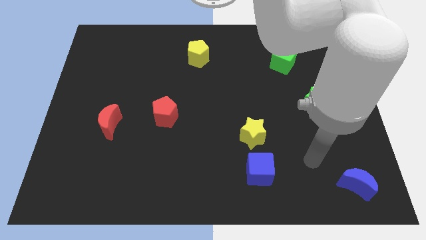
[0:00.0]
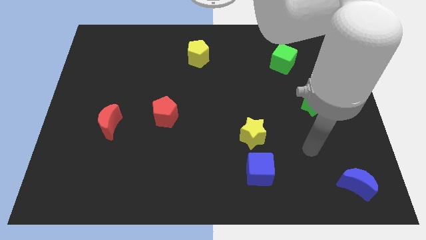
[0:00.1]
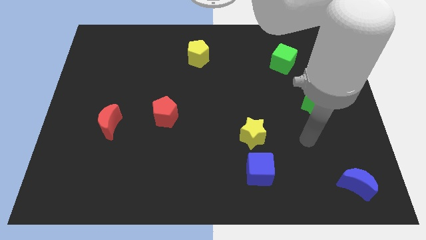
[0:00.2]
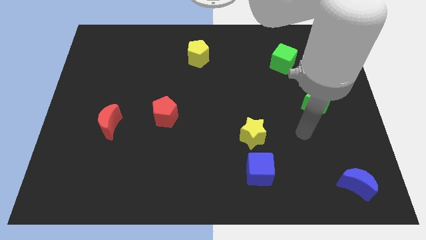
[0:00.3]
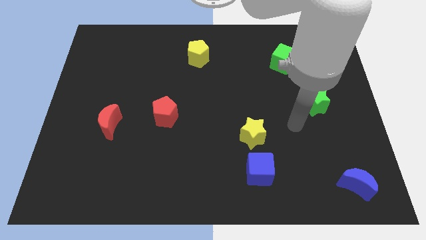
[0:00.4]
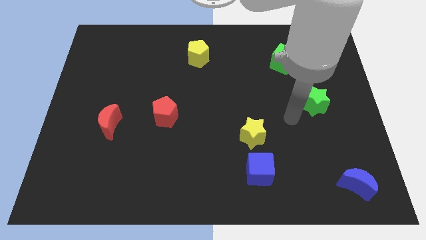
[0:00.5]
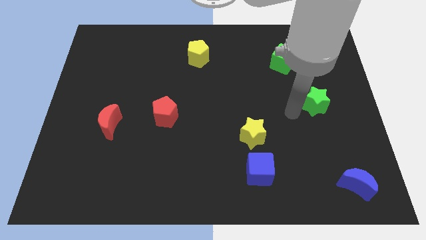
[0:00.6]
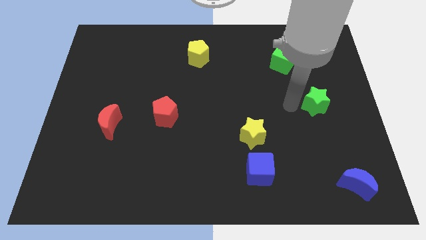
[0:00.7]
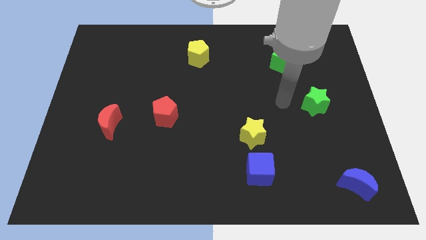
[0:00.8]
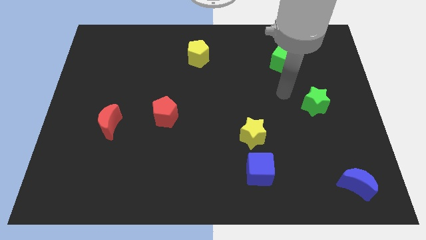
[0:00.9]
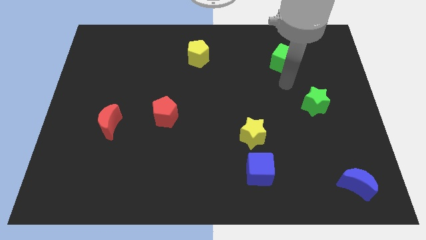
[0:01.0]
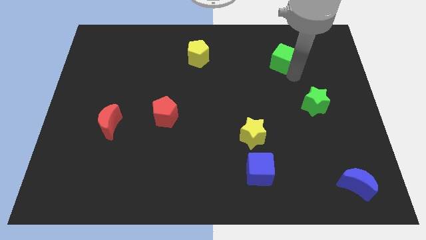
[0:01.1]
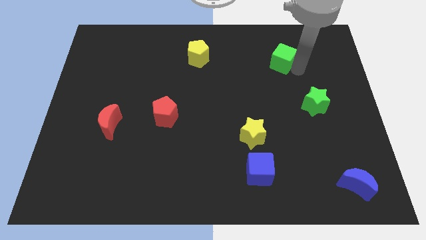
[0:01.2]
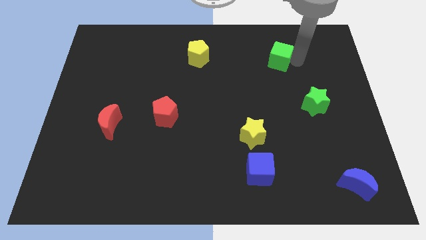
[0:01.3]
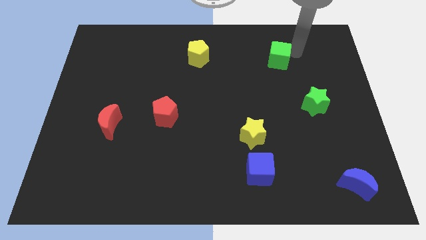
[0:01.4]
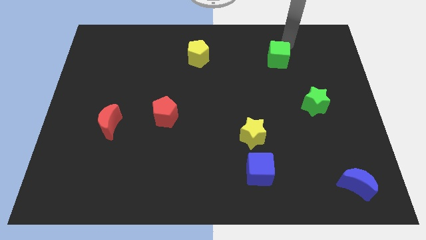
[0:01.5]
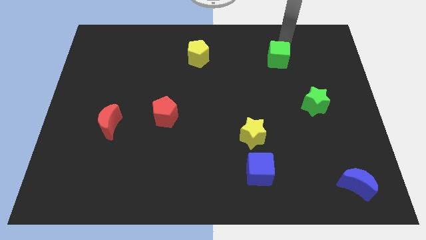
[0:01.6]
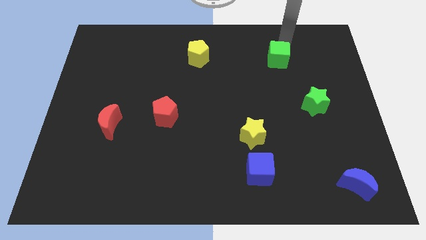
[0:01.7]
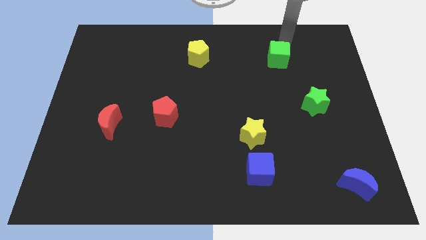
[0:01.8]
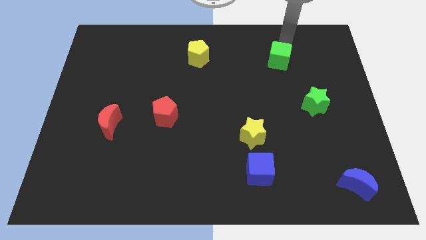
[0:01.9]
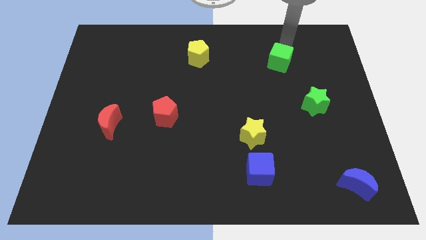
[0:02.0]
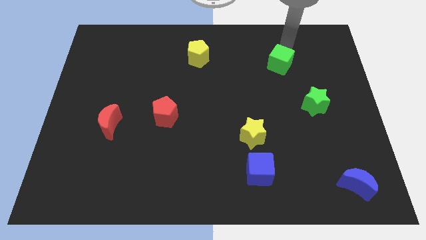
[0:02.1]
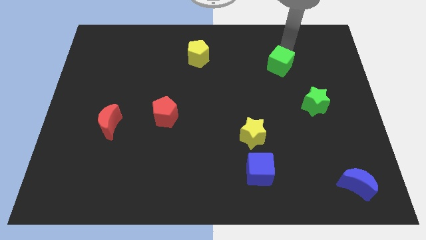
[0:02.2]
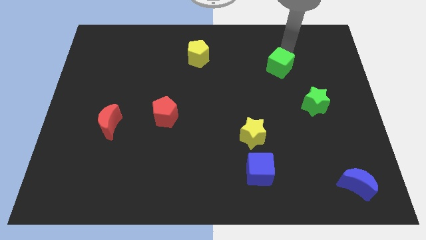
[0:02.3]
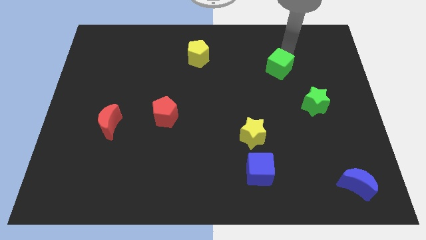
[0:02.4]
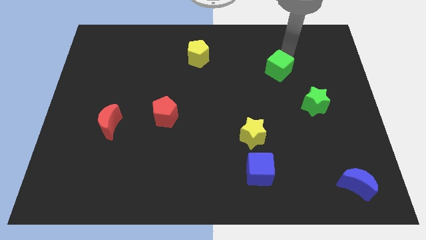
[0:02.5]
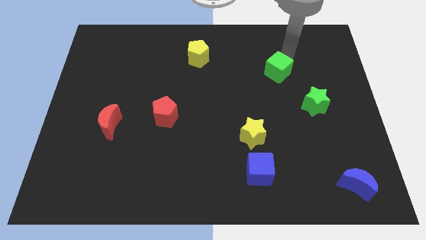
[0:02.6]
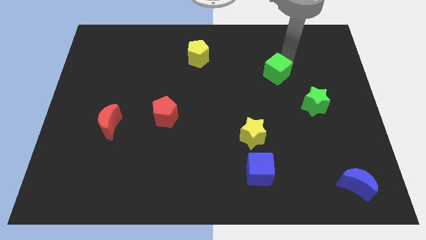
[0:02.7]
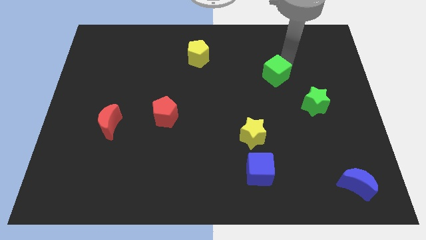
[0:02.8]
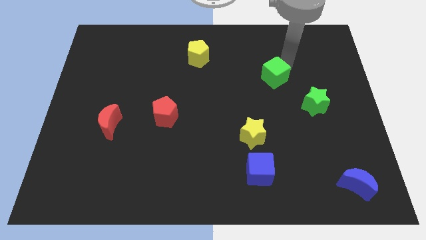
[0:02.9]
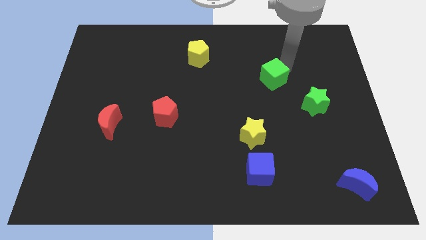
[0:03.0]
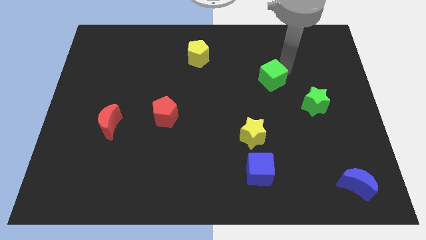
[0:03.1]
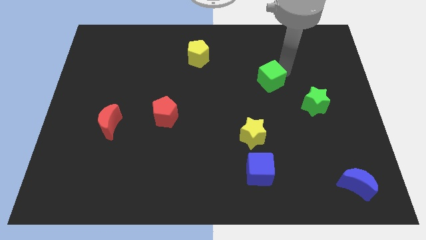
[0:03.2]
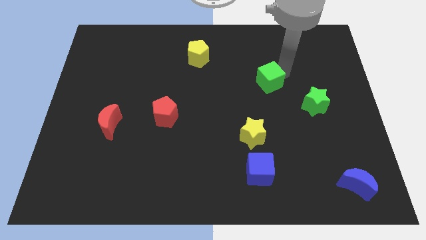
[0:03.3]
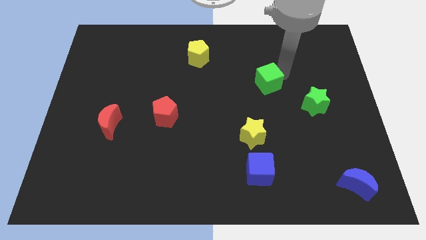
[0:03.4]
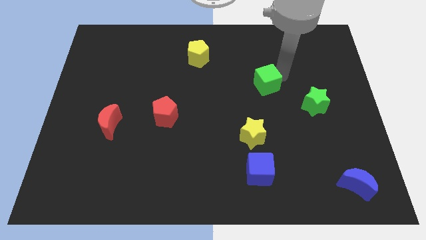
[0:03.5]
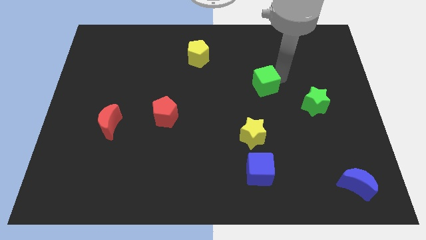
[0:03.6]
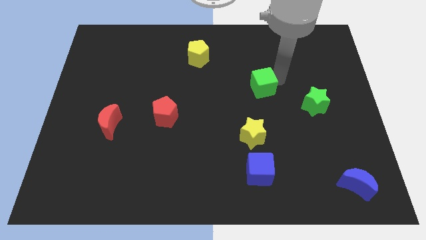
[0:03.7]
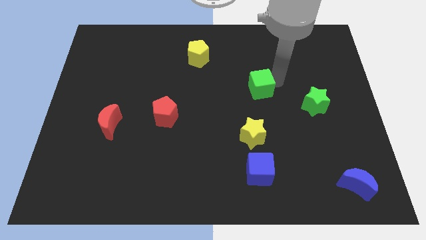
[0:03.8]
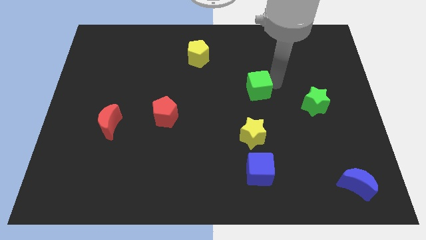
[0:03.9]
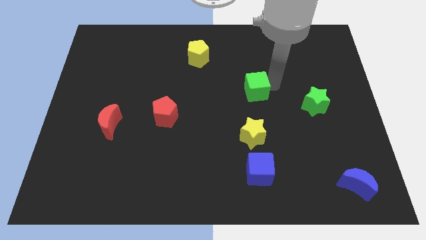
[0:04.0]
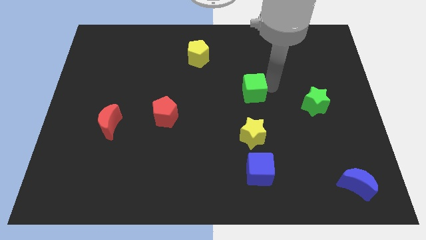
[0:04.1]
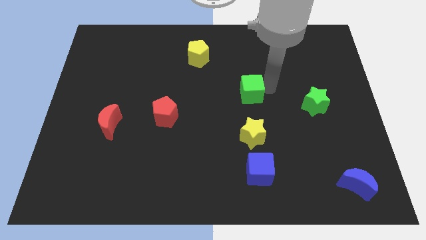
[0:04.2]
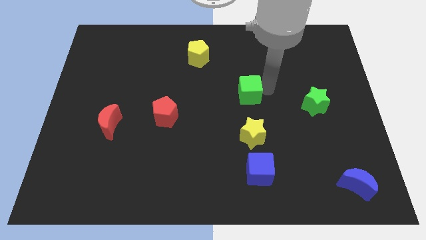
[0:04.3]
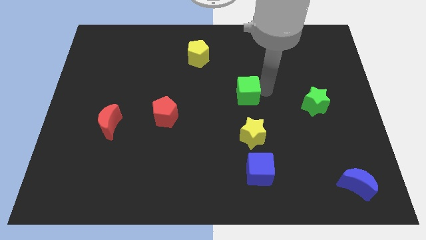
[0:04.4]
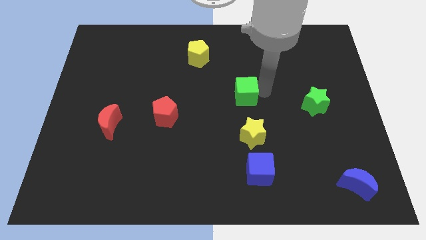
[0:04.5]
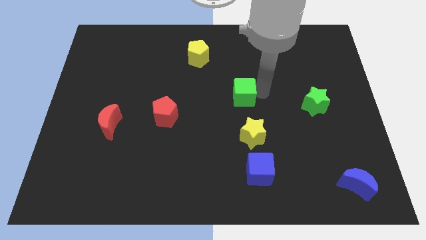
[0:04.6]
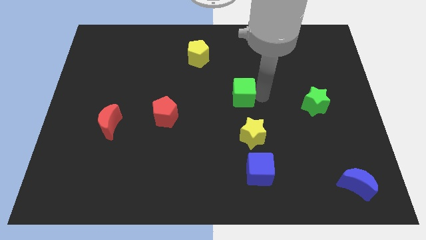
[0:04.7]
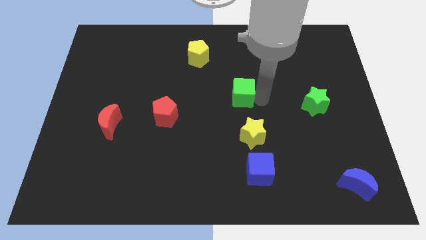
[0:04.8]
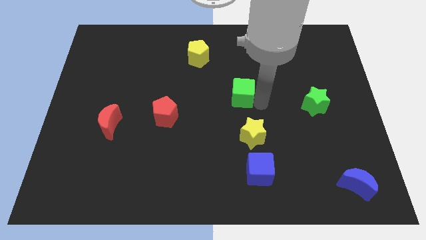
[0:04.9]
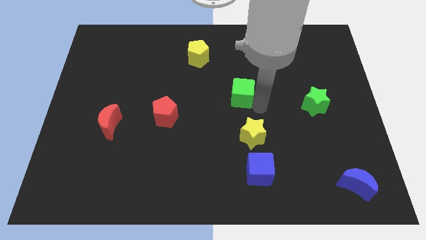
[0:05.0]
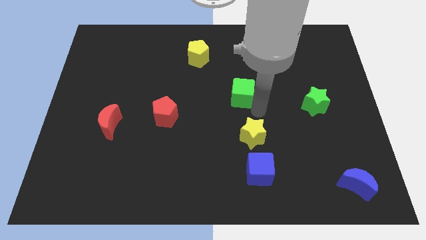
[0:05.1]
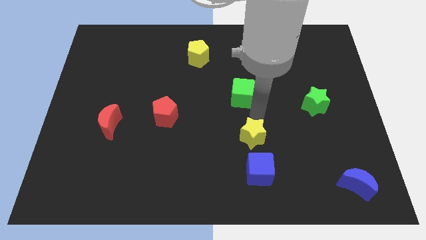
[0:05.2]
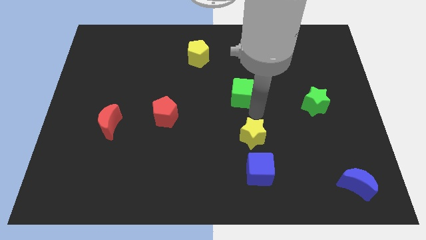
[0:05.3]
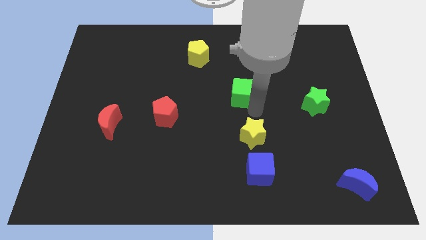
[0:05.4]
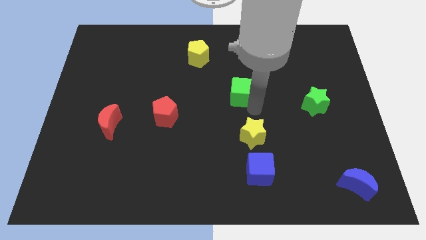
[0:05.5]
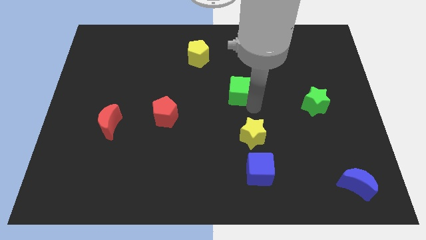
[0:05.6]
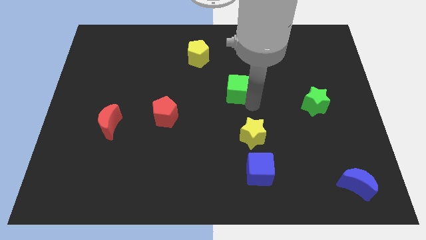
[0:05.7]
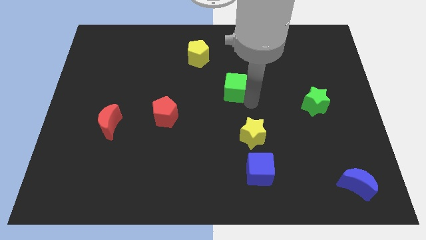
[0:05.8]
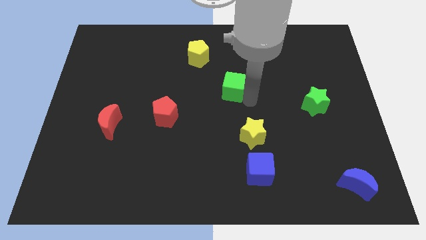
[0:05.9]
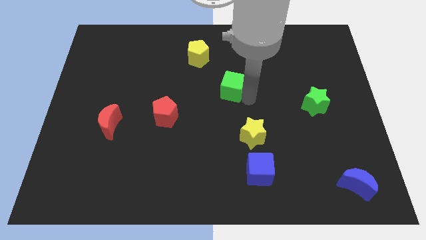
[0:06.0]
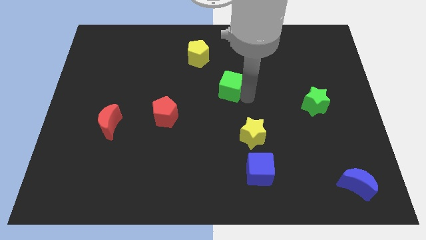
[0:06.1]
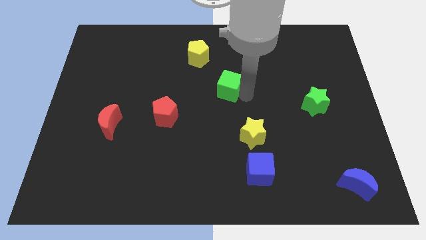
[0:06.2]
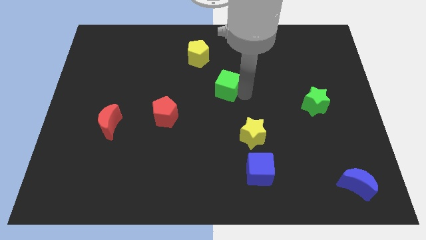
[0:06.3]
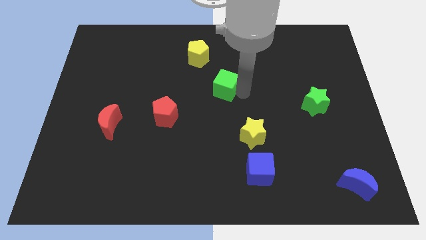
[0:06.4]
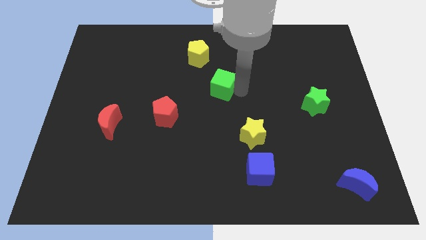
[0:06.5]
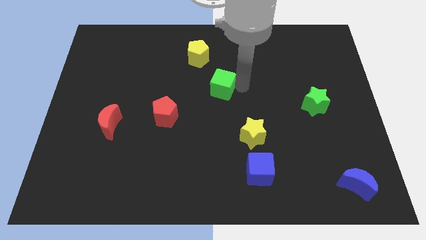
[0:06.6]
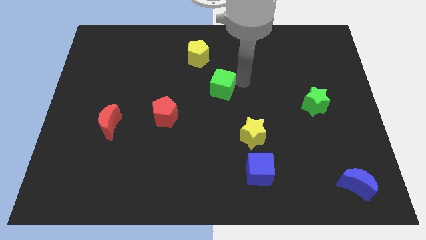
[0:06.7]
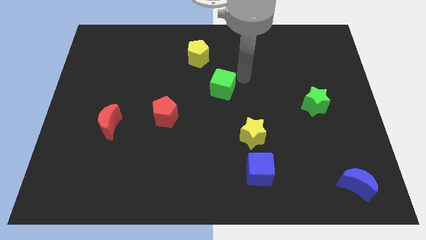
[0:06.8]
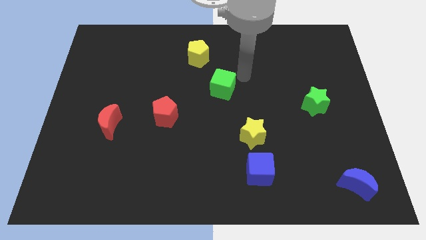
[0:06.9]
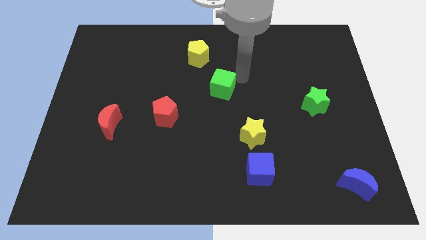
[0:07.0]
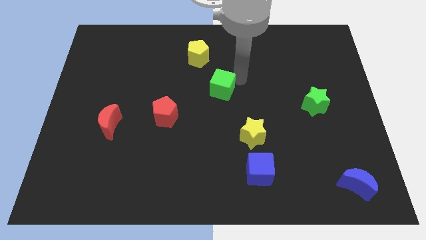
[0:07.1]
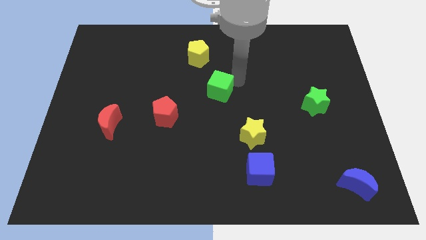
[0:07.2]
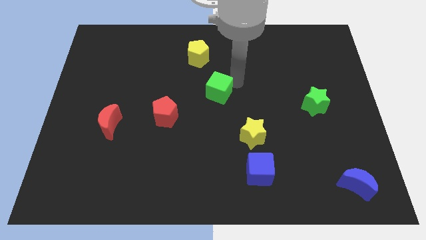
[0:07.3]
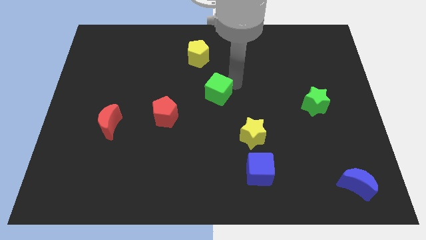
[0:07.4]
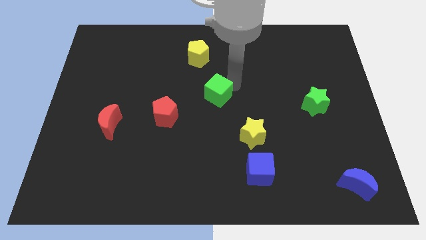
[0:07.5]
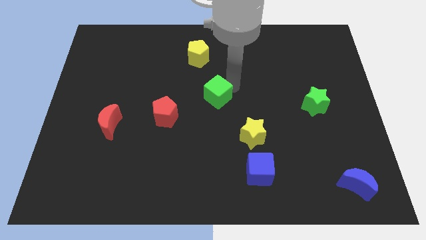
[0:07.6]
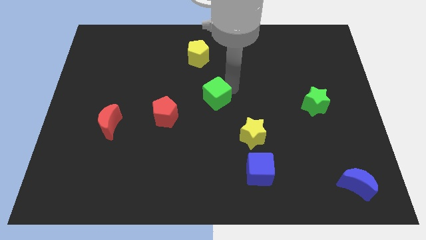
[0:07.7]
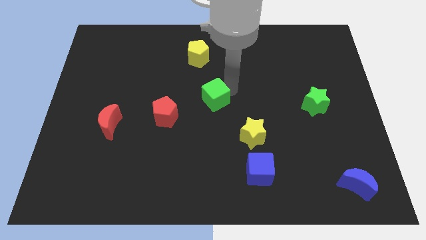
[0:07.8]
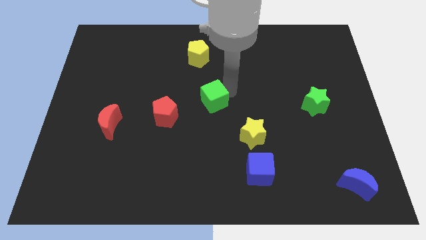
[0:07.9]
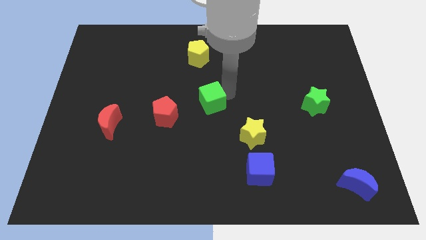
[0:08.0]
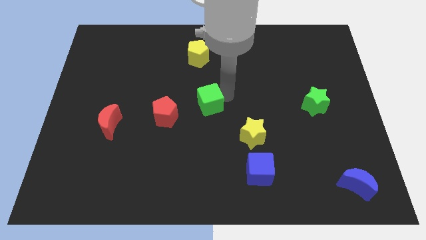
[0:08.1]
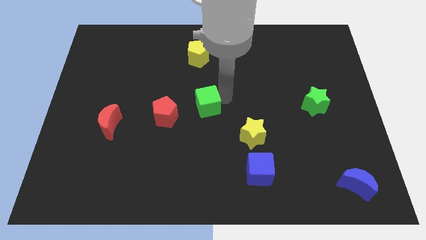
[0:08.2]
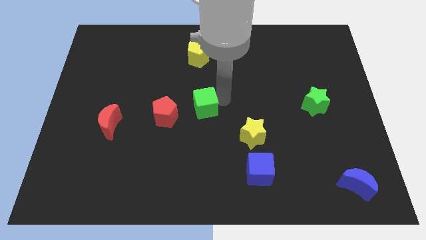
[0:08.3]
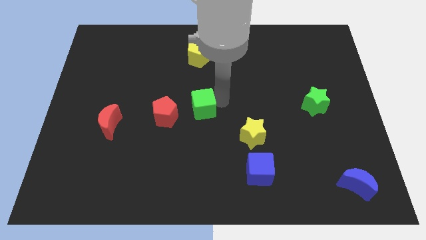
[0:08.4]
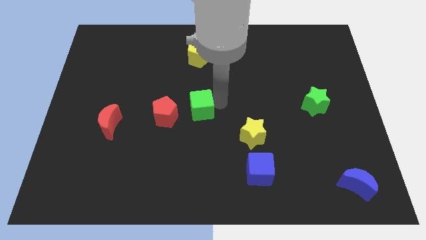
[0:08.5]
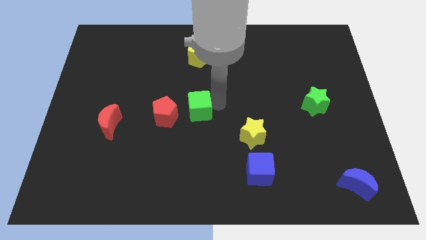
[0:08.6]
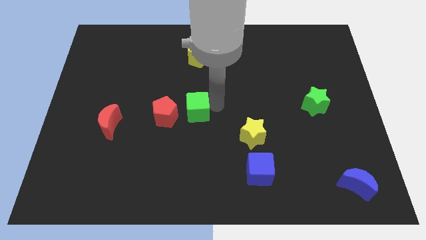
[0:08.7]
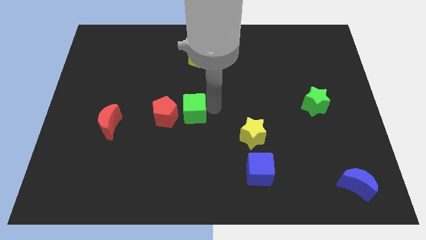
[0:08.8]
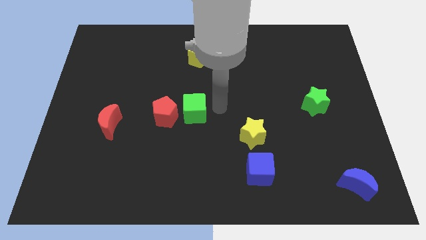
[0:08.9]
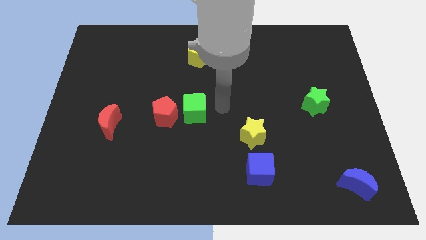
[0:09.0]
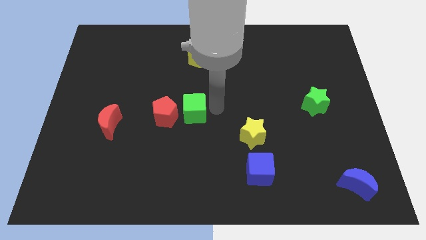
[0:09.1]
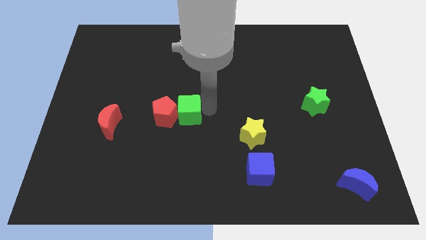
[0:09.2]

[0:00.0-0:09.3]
put the green cube towards the red pentagon
